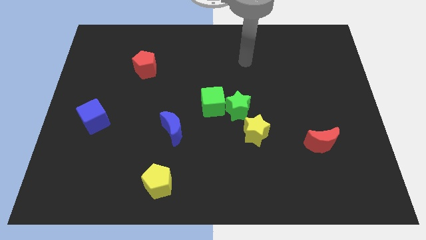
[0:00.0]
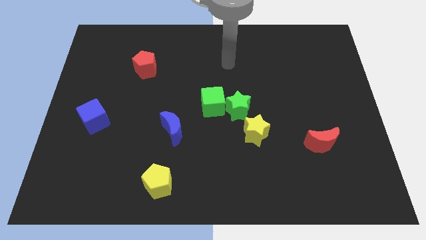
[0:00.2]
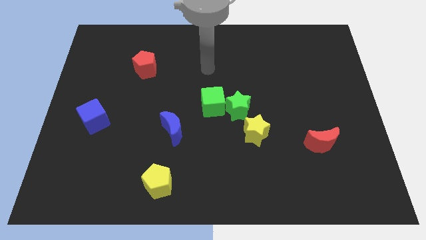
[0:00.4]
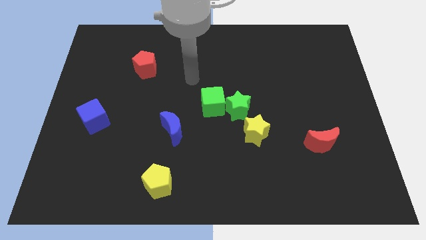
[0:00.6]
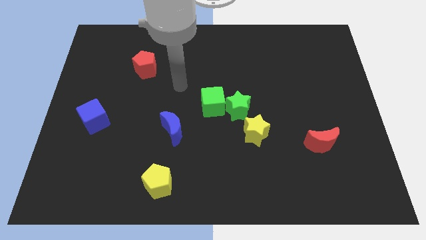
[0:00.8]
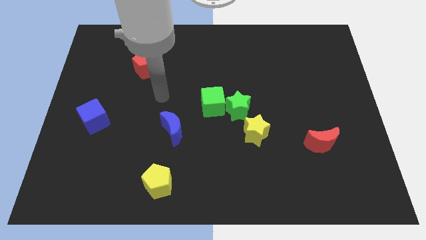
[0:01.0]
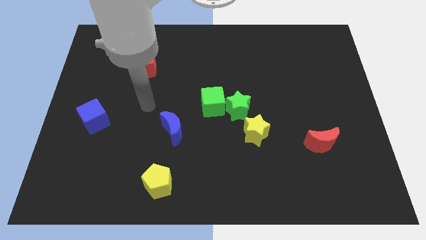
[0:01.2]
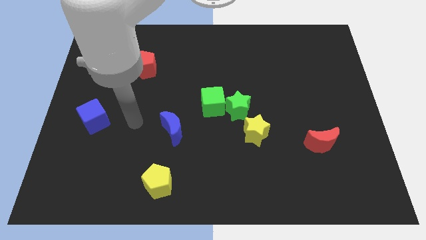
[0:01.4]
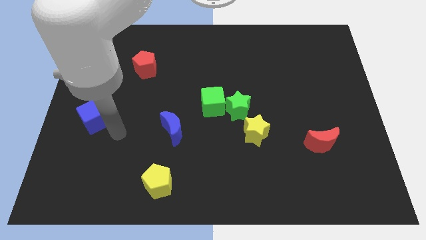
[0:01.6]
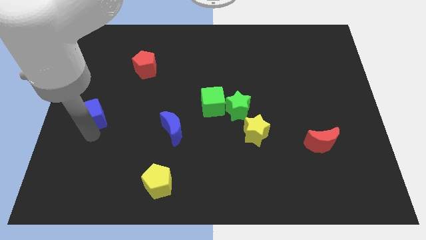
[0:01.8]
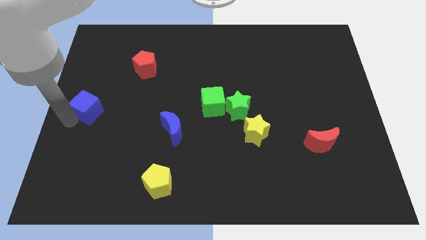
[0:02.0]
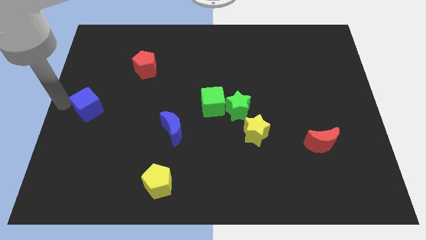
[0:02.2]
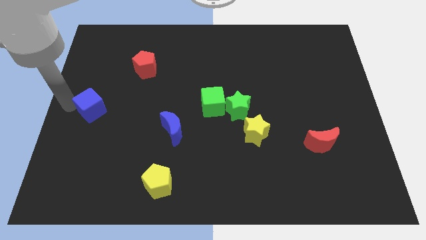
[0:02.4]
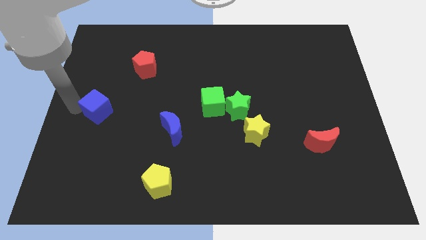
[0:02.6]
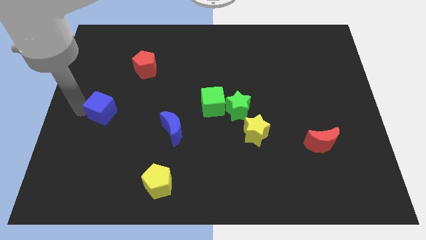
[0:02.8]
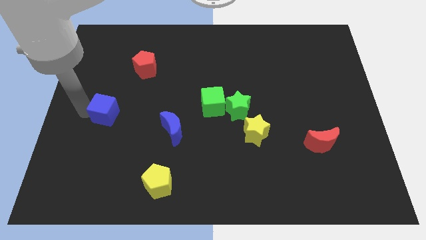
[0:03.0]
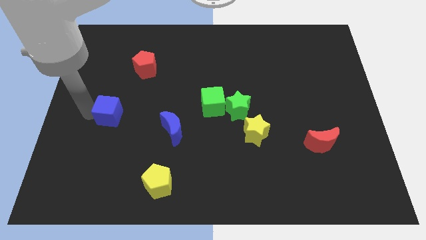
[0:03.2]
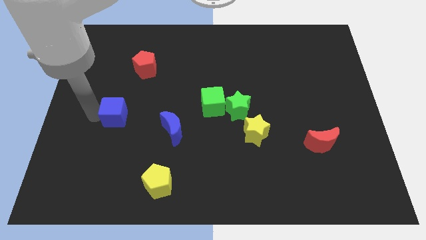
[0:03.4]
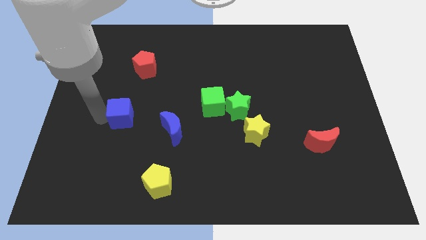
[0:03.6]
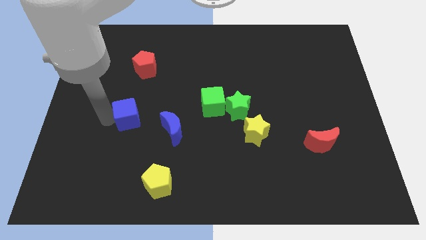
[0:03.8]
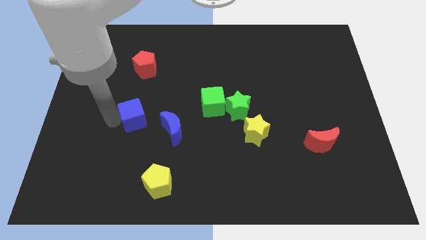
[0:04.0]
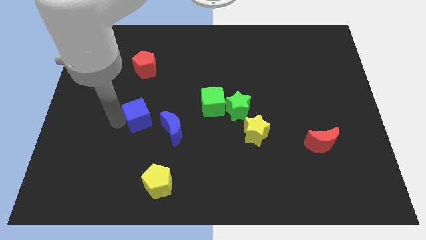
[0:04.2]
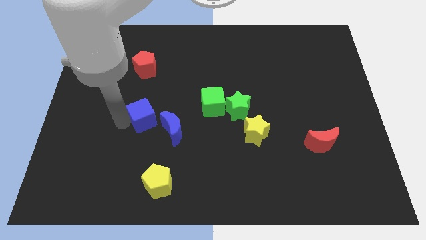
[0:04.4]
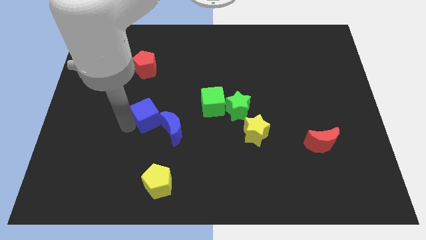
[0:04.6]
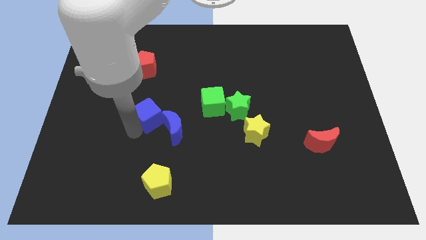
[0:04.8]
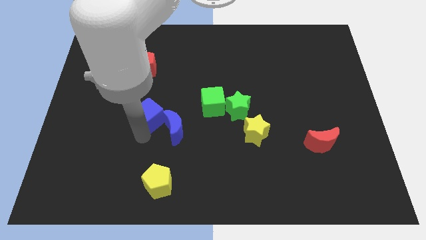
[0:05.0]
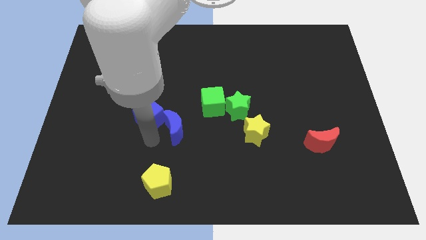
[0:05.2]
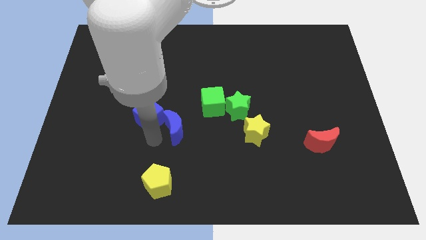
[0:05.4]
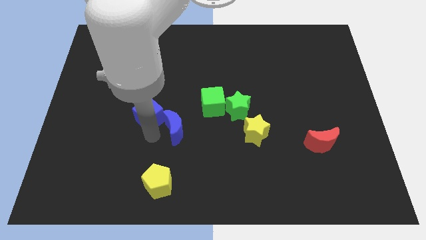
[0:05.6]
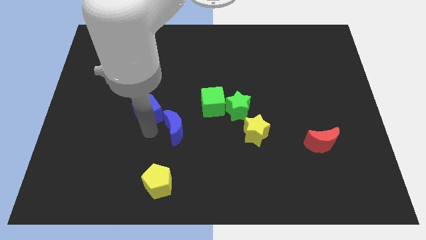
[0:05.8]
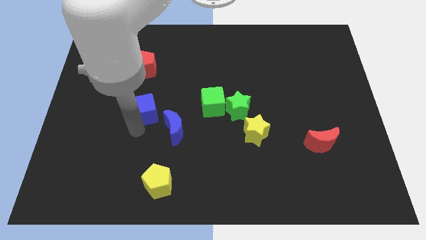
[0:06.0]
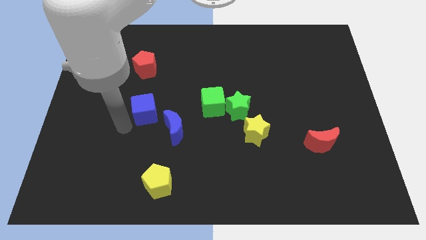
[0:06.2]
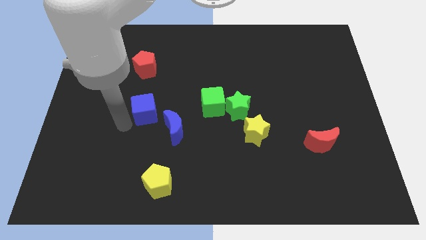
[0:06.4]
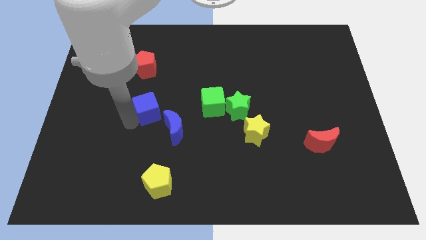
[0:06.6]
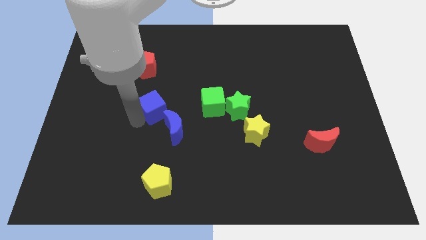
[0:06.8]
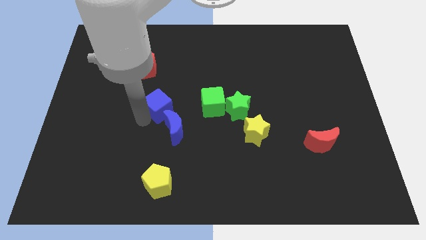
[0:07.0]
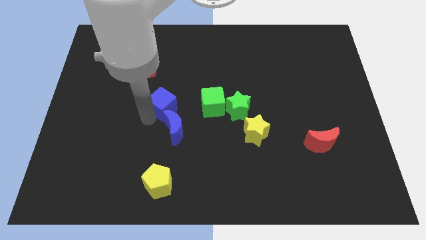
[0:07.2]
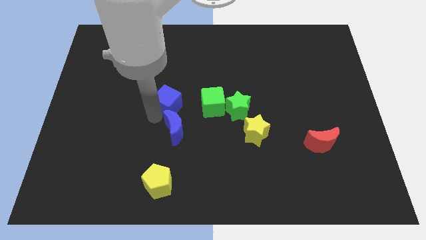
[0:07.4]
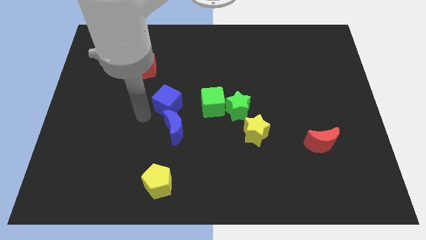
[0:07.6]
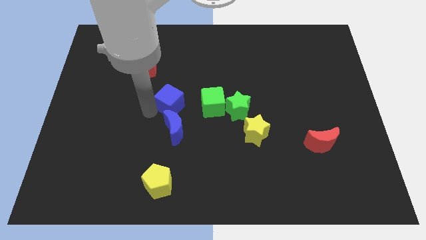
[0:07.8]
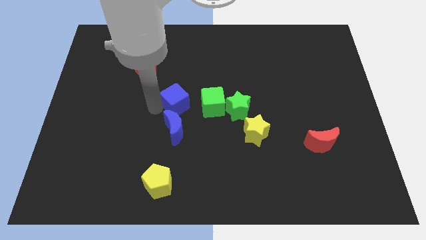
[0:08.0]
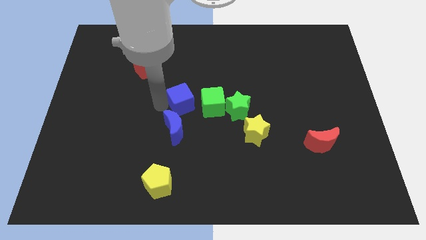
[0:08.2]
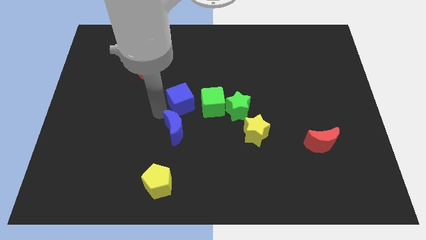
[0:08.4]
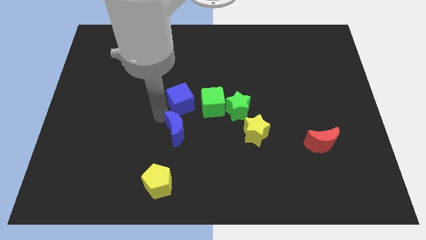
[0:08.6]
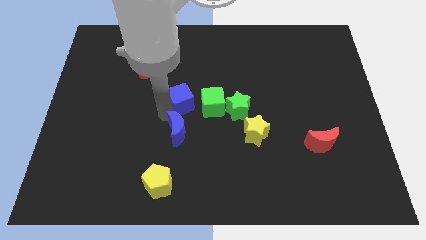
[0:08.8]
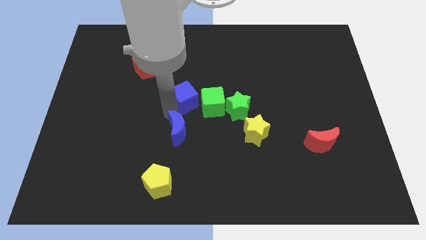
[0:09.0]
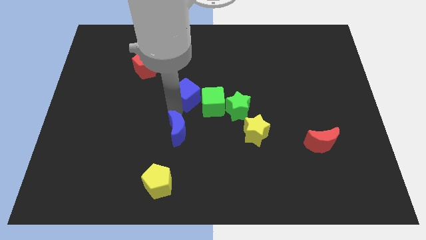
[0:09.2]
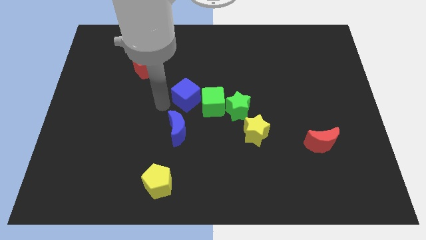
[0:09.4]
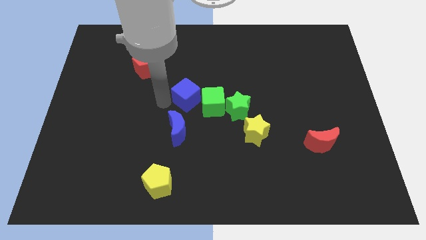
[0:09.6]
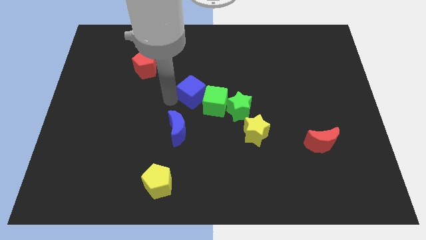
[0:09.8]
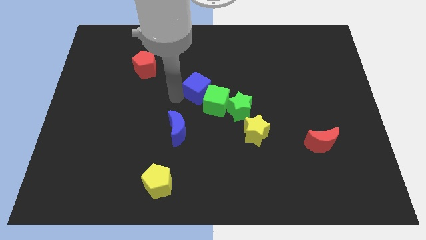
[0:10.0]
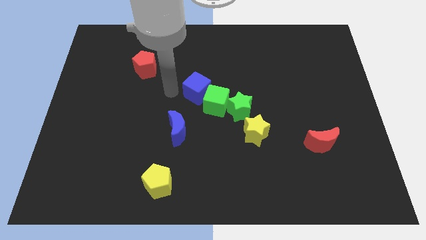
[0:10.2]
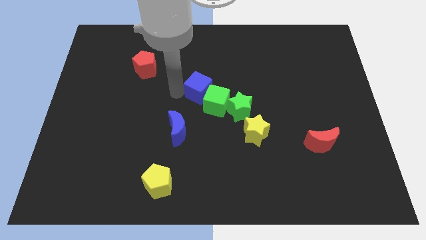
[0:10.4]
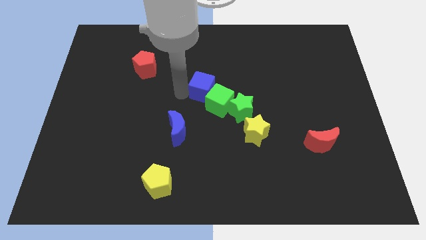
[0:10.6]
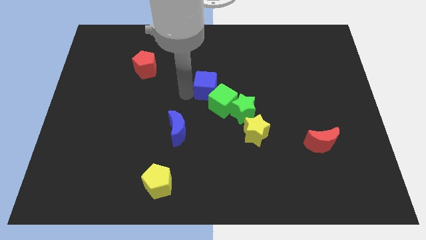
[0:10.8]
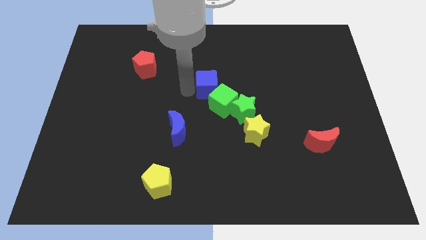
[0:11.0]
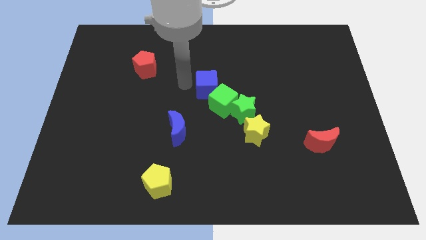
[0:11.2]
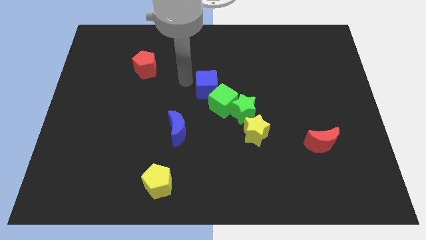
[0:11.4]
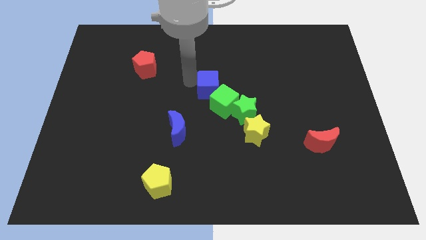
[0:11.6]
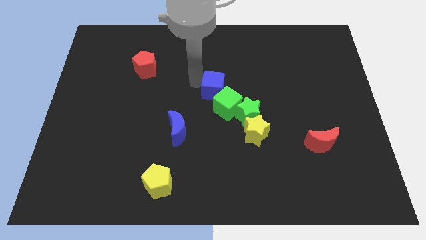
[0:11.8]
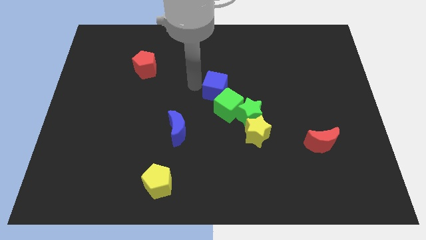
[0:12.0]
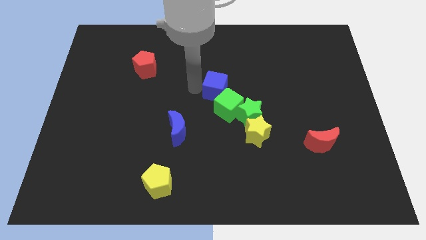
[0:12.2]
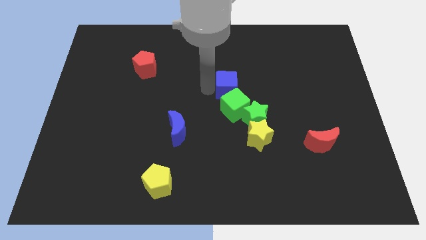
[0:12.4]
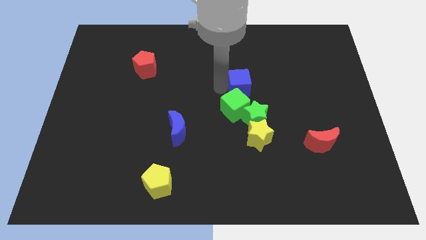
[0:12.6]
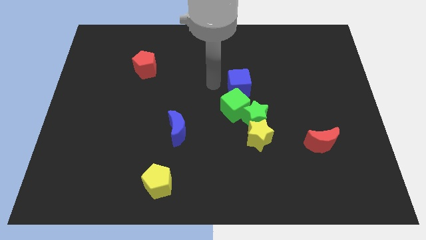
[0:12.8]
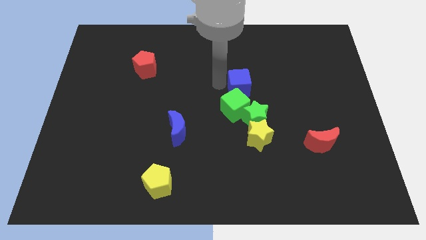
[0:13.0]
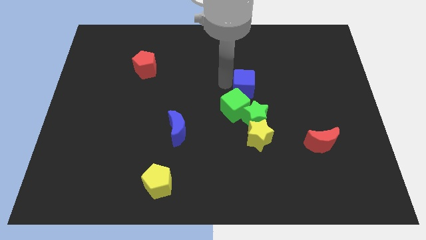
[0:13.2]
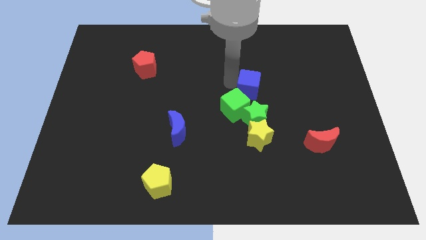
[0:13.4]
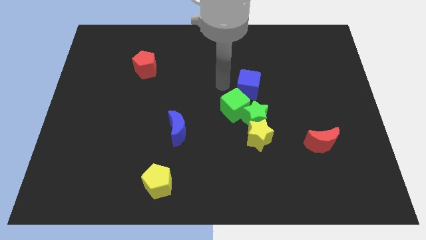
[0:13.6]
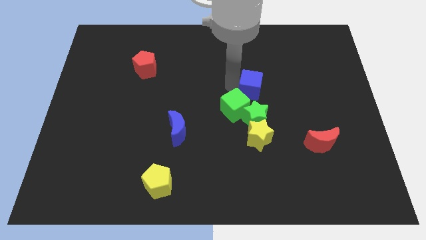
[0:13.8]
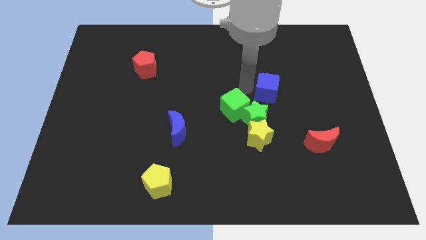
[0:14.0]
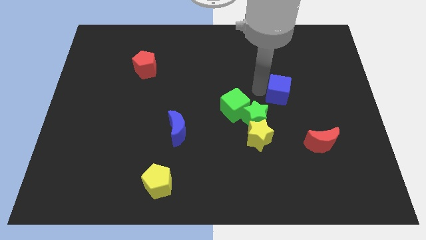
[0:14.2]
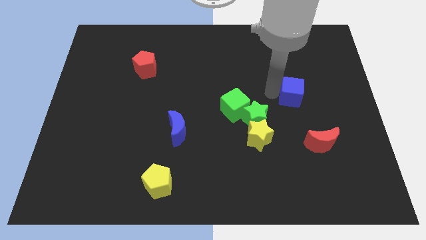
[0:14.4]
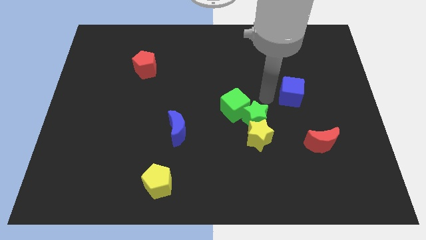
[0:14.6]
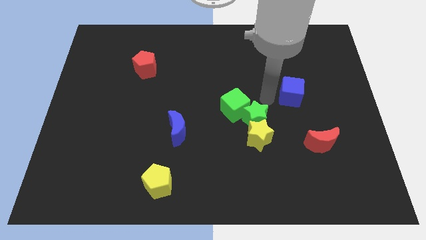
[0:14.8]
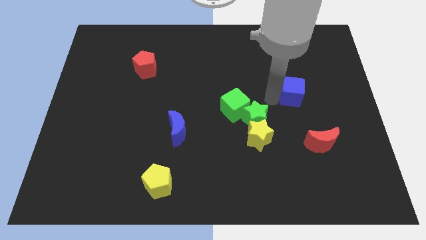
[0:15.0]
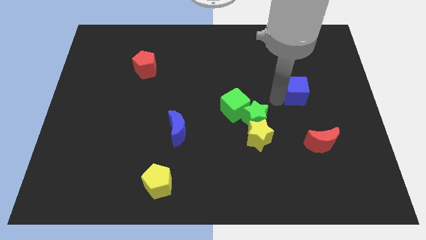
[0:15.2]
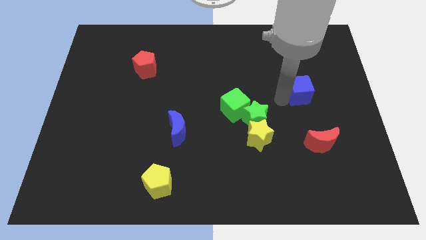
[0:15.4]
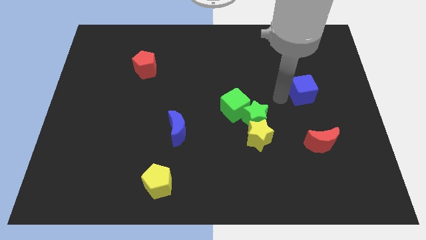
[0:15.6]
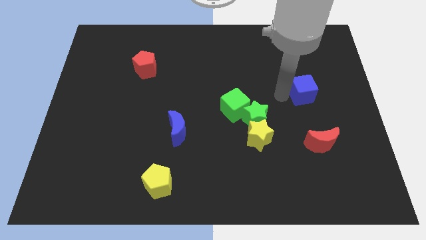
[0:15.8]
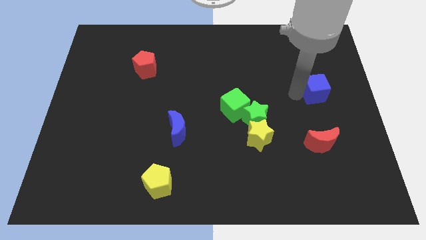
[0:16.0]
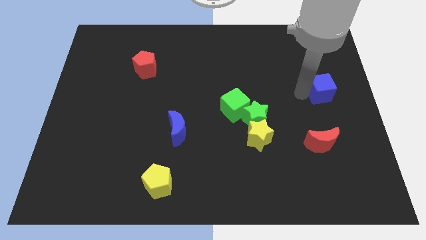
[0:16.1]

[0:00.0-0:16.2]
move the blue cube to the right side
